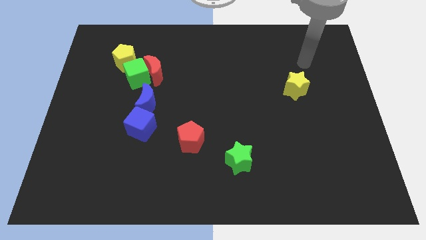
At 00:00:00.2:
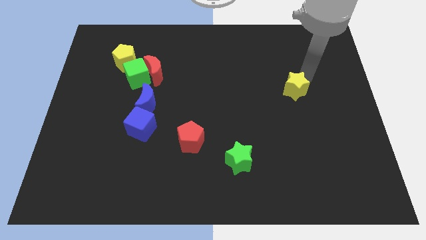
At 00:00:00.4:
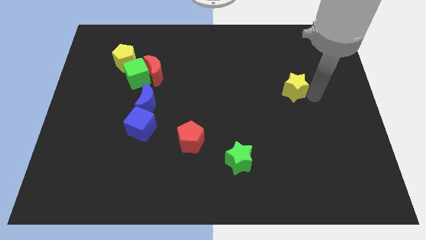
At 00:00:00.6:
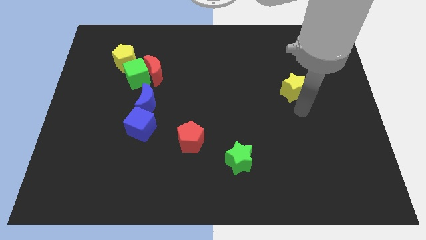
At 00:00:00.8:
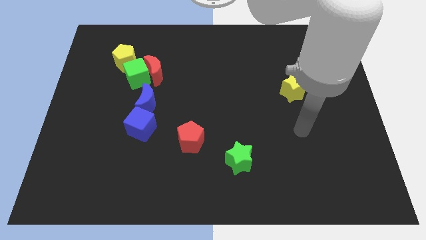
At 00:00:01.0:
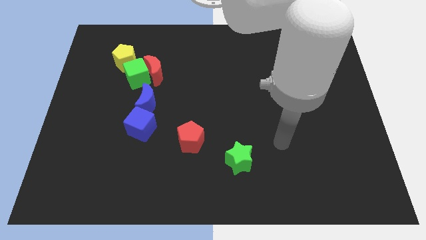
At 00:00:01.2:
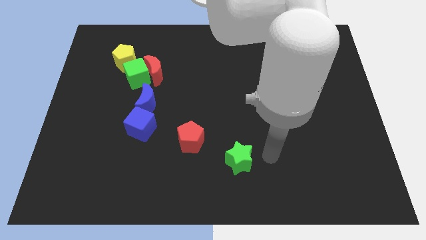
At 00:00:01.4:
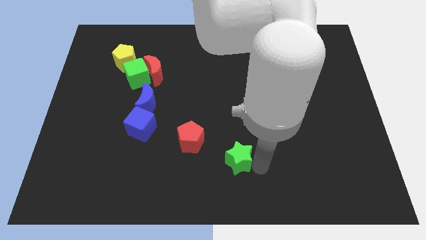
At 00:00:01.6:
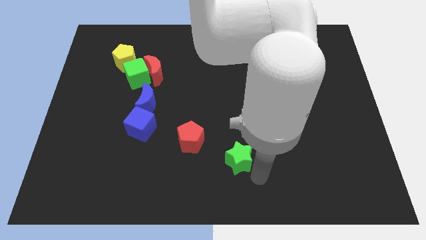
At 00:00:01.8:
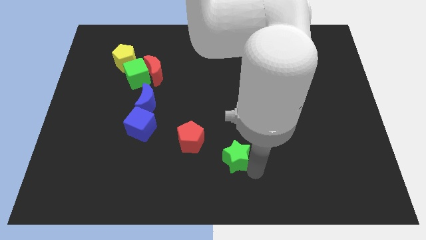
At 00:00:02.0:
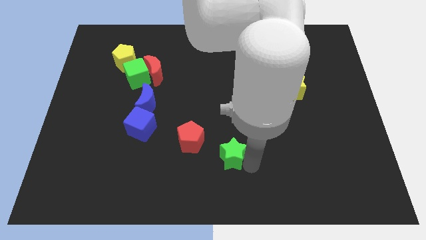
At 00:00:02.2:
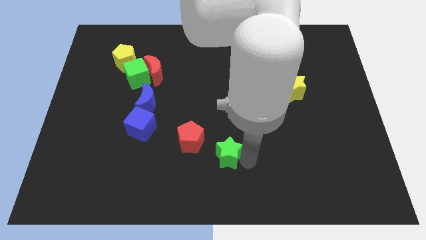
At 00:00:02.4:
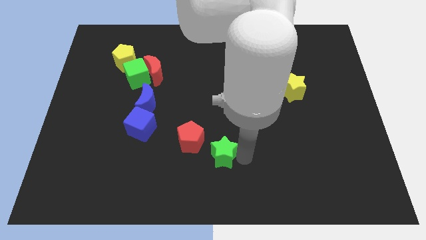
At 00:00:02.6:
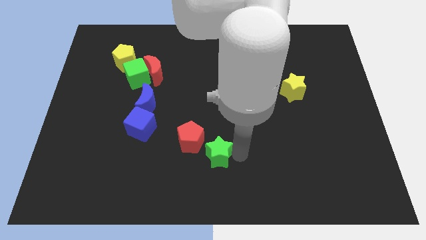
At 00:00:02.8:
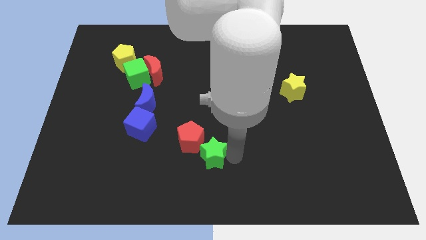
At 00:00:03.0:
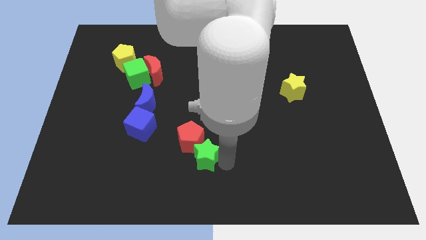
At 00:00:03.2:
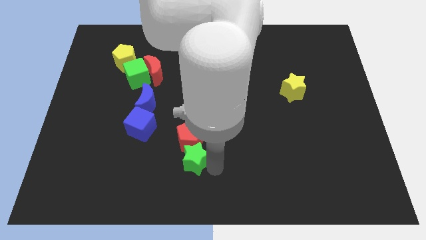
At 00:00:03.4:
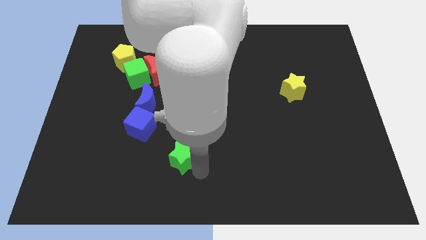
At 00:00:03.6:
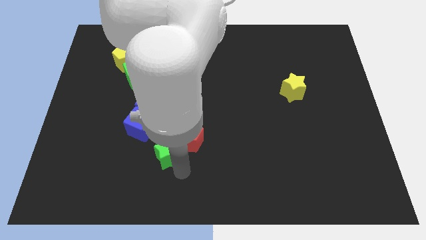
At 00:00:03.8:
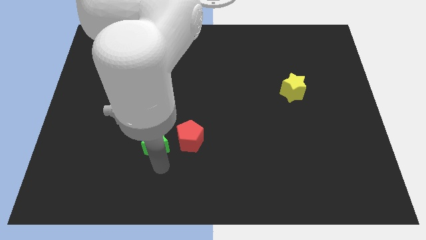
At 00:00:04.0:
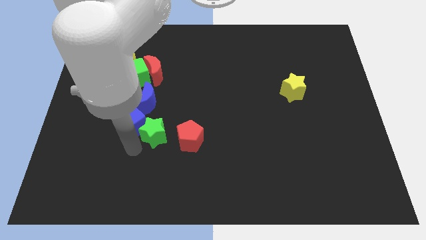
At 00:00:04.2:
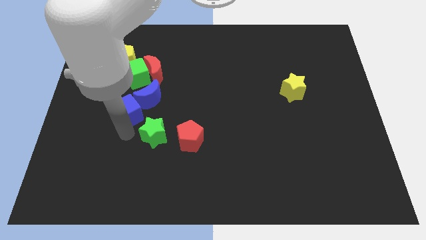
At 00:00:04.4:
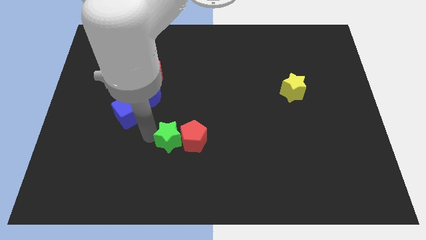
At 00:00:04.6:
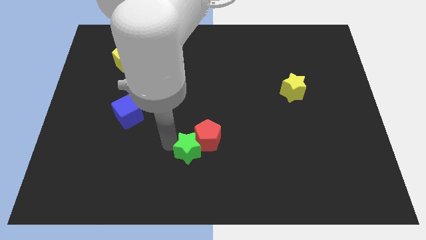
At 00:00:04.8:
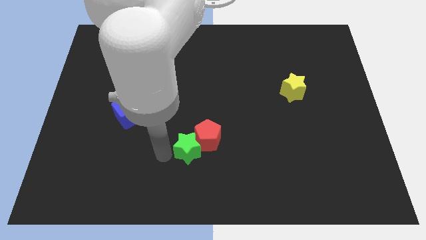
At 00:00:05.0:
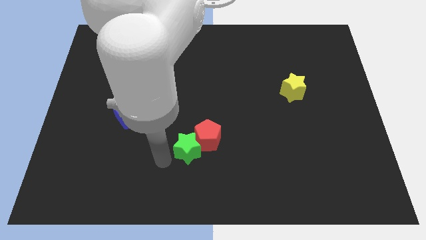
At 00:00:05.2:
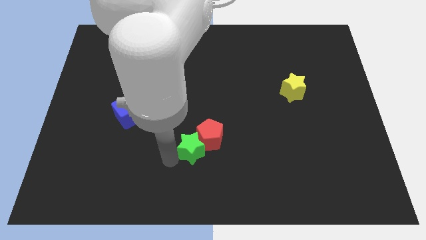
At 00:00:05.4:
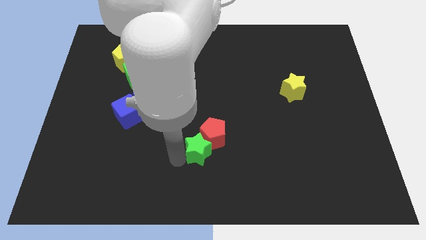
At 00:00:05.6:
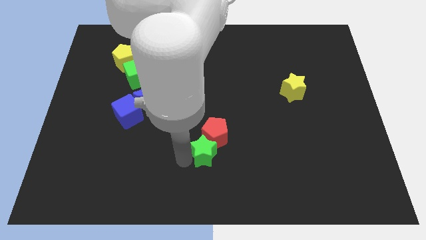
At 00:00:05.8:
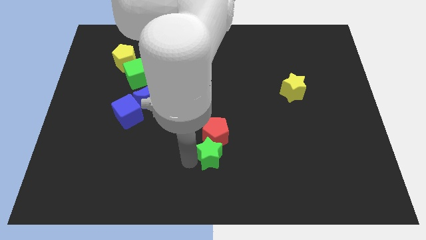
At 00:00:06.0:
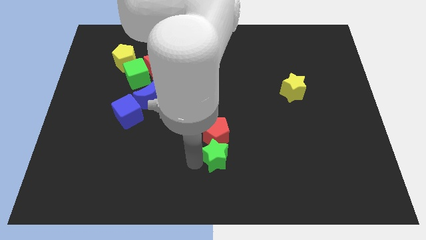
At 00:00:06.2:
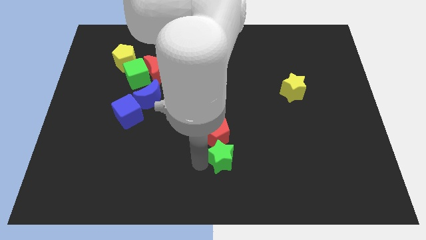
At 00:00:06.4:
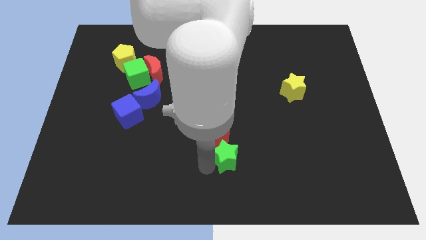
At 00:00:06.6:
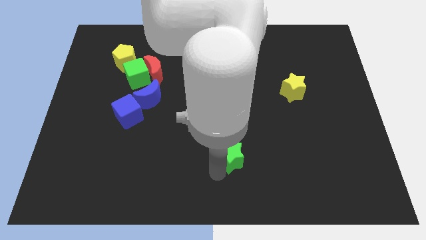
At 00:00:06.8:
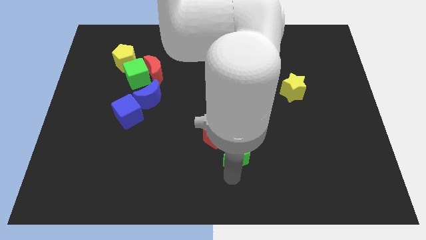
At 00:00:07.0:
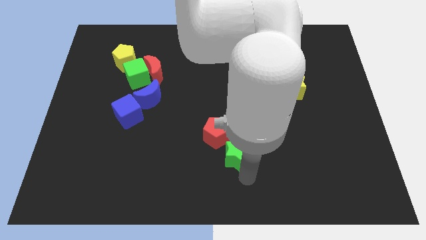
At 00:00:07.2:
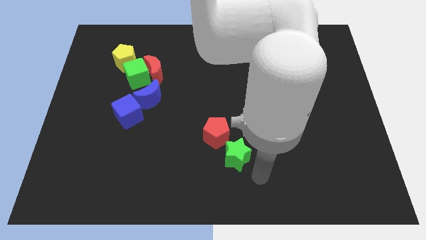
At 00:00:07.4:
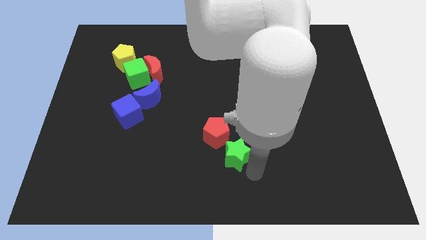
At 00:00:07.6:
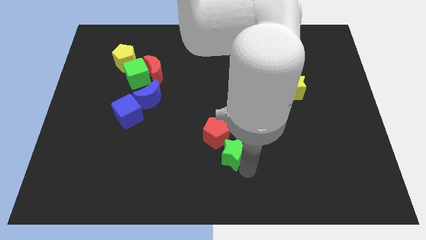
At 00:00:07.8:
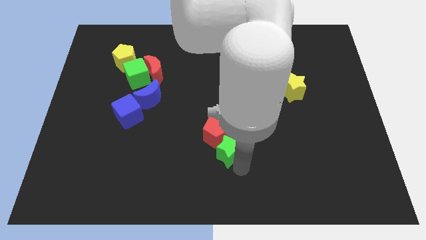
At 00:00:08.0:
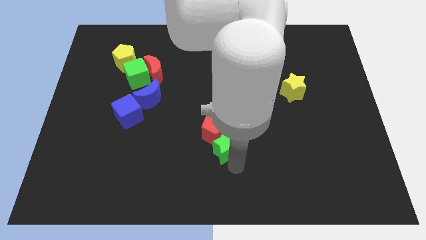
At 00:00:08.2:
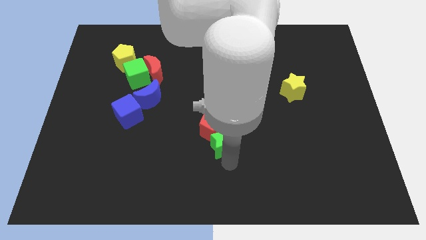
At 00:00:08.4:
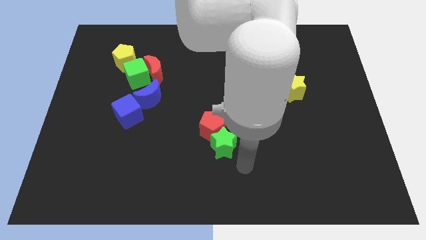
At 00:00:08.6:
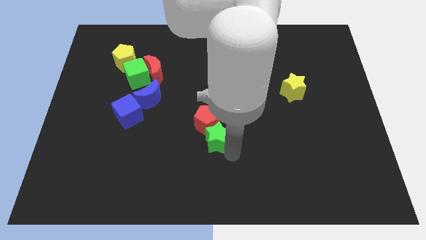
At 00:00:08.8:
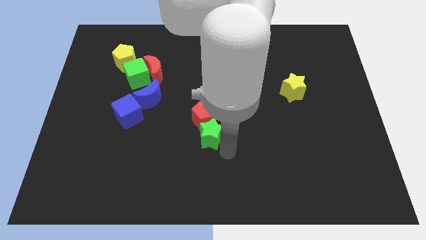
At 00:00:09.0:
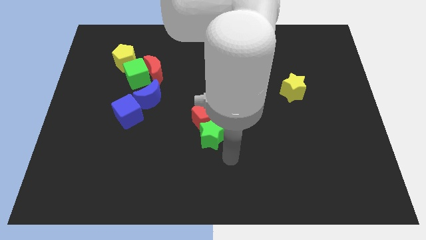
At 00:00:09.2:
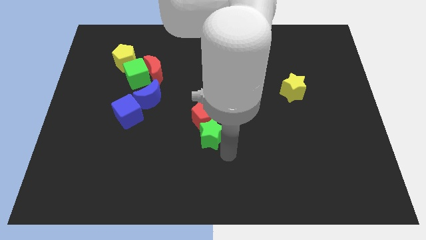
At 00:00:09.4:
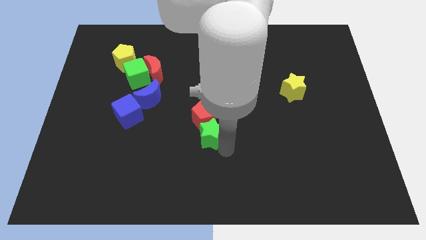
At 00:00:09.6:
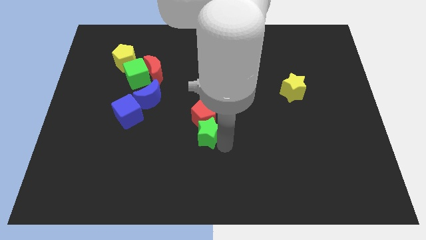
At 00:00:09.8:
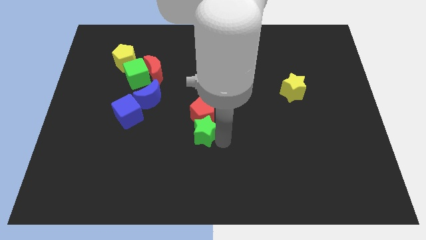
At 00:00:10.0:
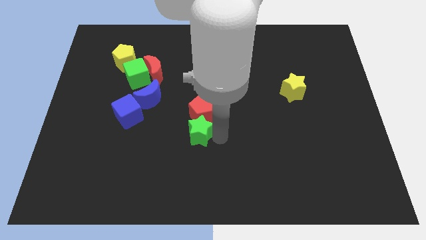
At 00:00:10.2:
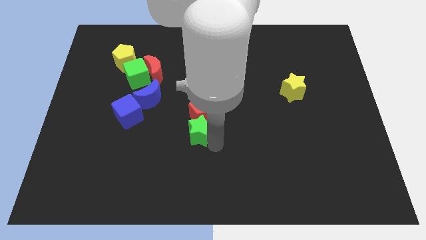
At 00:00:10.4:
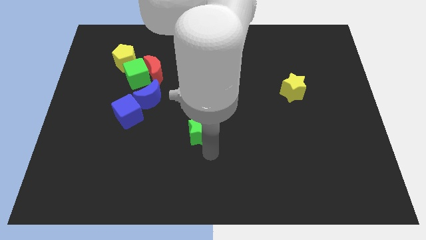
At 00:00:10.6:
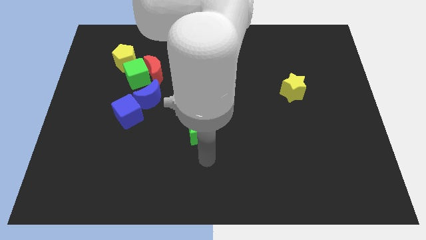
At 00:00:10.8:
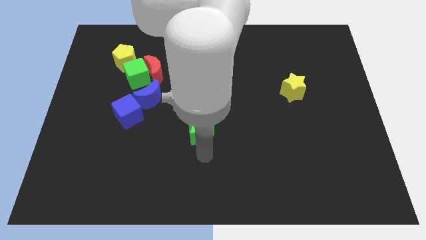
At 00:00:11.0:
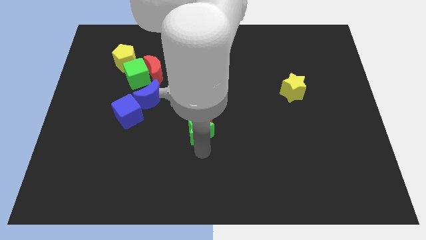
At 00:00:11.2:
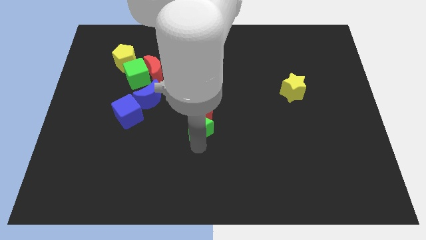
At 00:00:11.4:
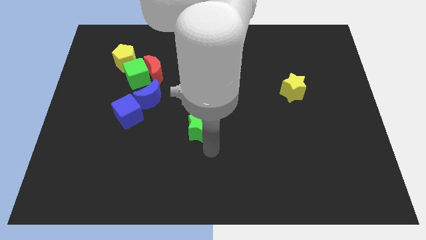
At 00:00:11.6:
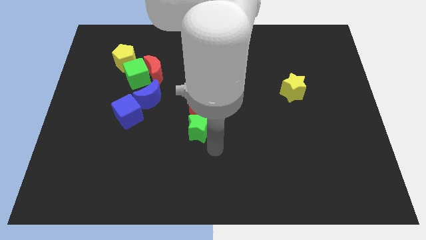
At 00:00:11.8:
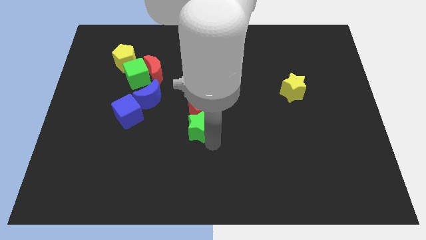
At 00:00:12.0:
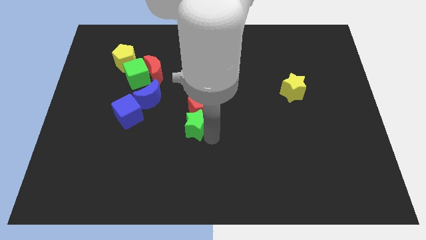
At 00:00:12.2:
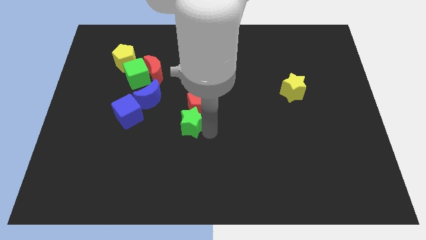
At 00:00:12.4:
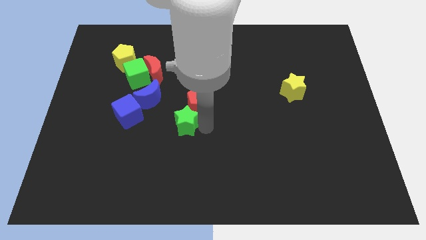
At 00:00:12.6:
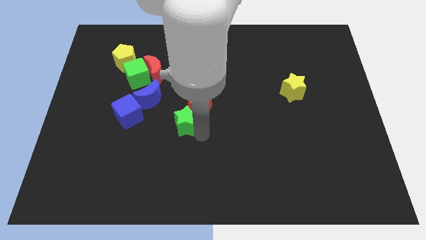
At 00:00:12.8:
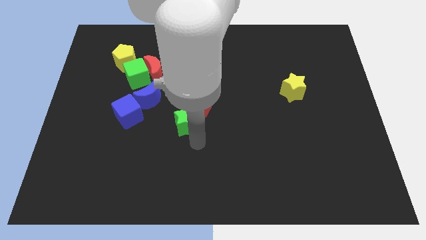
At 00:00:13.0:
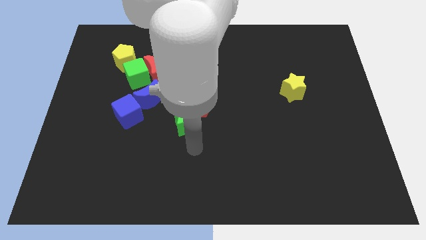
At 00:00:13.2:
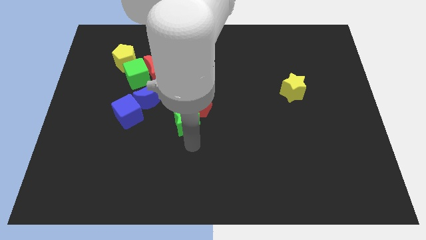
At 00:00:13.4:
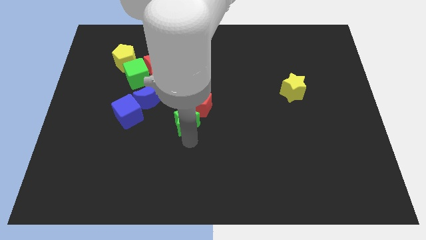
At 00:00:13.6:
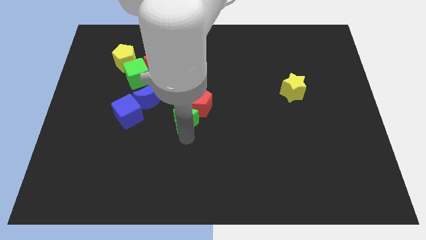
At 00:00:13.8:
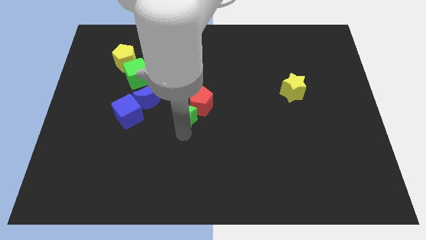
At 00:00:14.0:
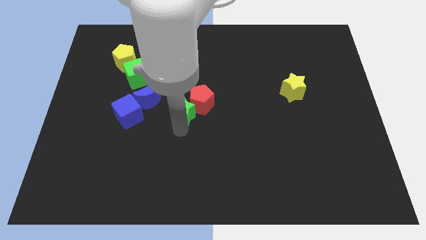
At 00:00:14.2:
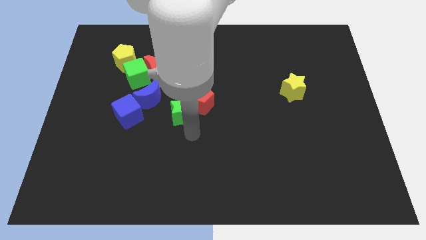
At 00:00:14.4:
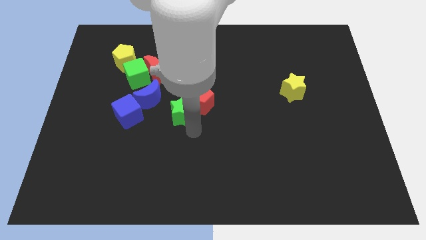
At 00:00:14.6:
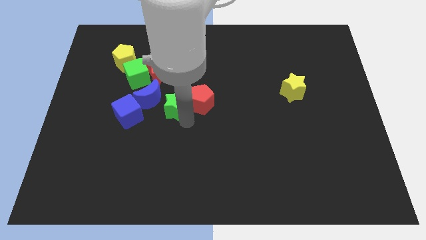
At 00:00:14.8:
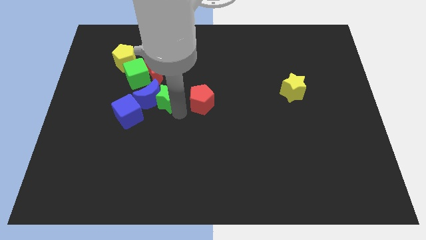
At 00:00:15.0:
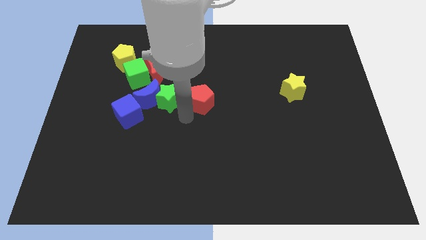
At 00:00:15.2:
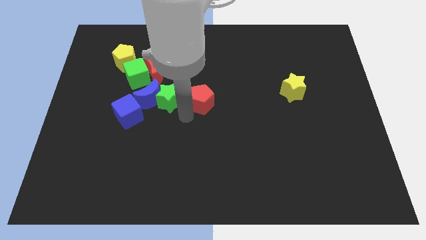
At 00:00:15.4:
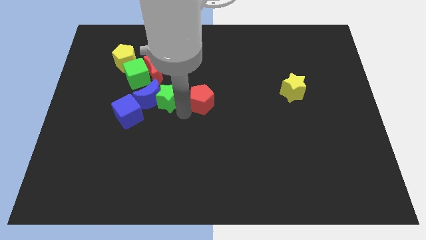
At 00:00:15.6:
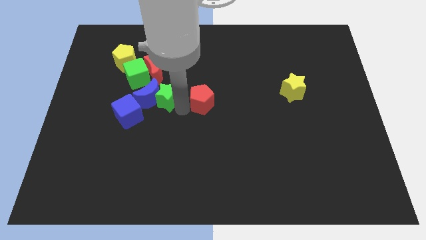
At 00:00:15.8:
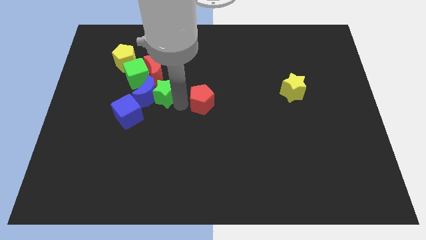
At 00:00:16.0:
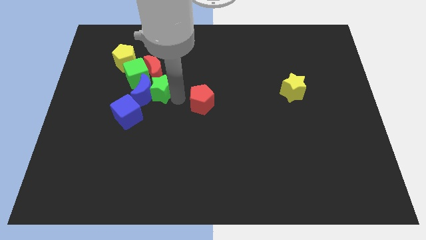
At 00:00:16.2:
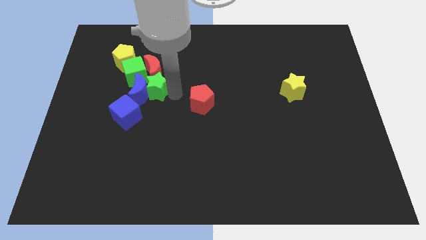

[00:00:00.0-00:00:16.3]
move the green star next to the red moon
